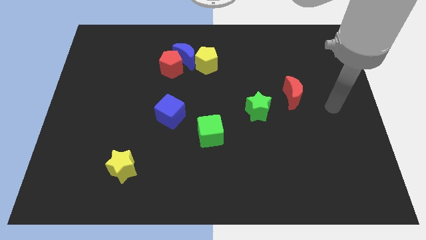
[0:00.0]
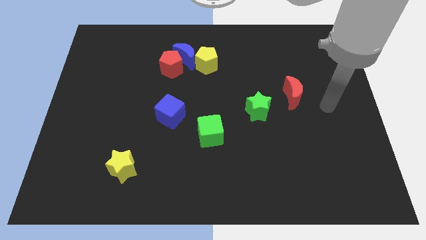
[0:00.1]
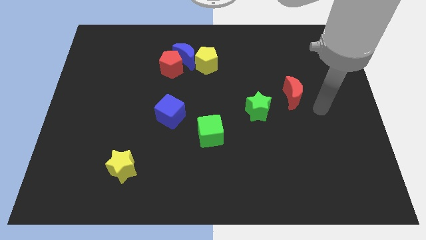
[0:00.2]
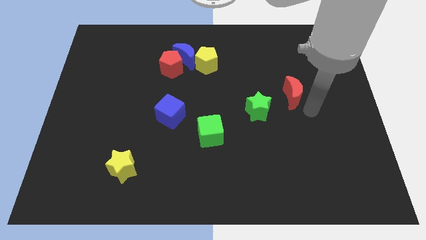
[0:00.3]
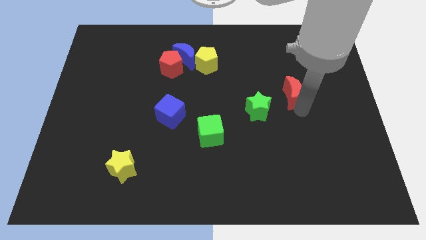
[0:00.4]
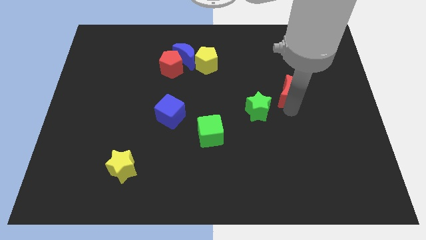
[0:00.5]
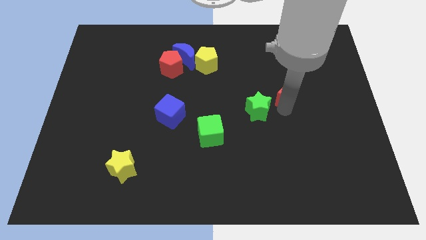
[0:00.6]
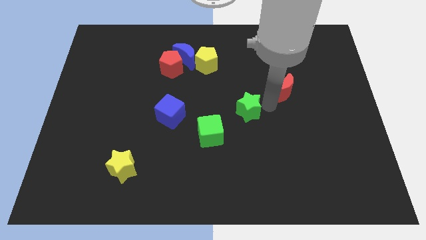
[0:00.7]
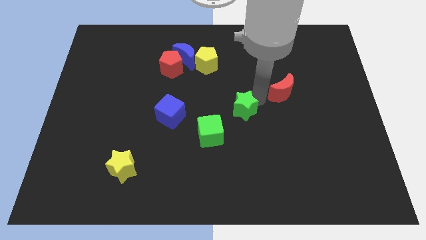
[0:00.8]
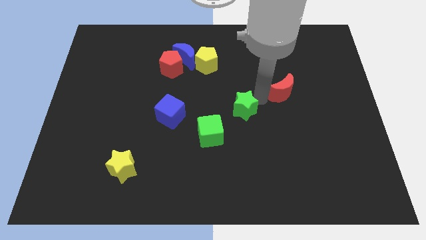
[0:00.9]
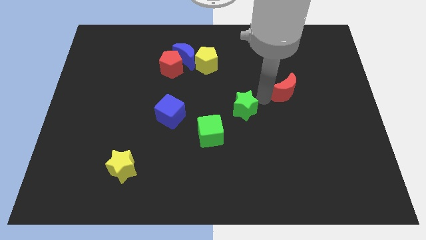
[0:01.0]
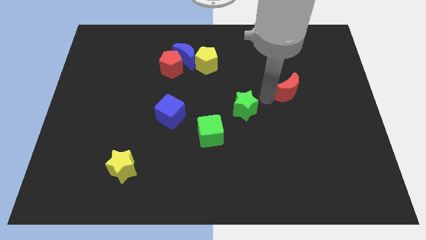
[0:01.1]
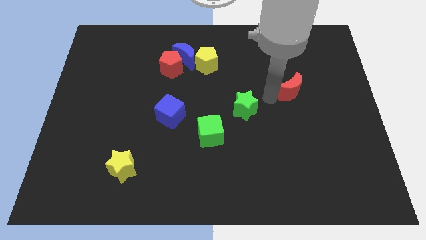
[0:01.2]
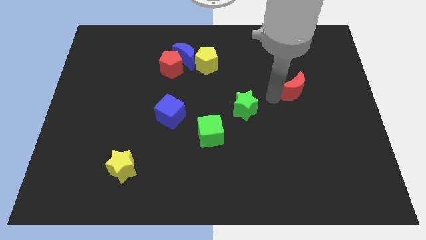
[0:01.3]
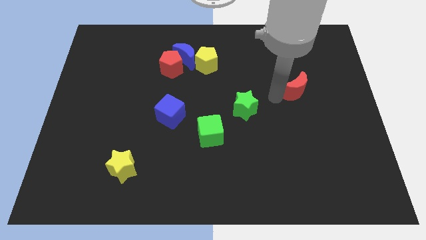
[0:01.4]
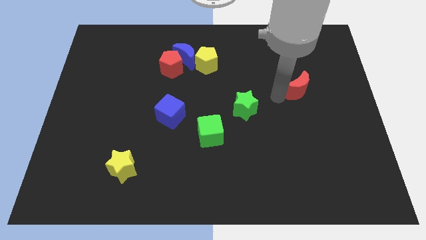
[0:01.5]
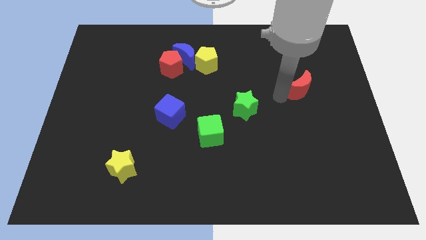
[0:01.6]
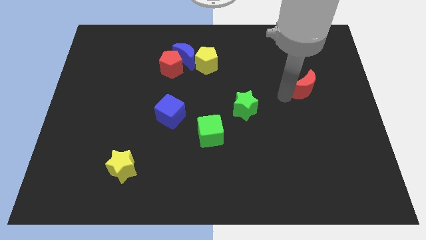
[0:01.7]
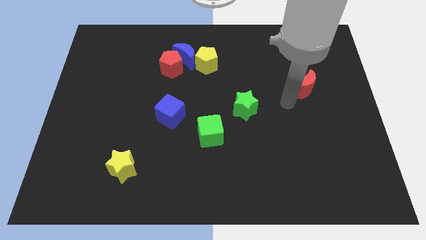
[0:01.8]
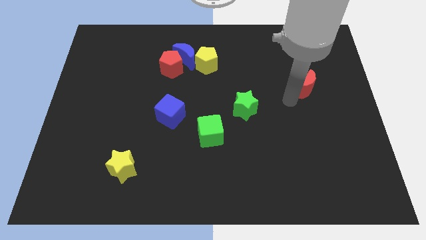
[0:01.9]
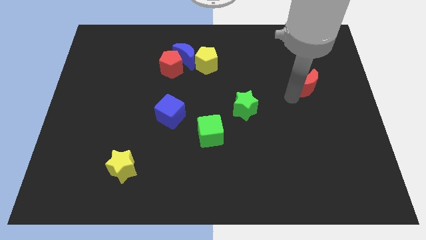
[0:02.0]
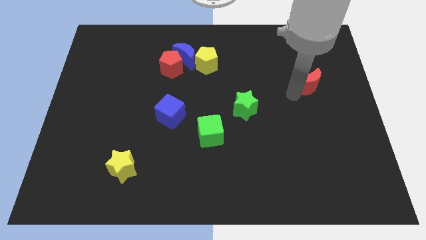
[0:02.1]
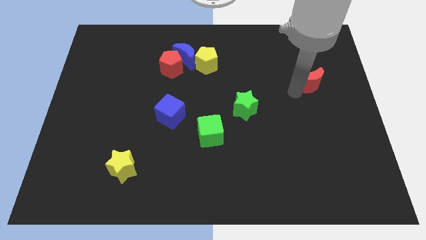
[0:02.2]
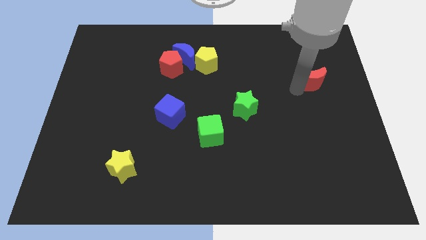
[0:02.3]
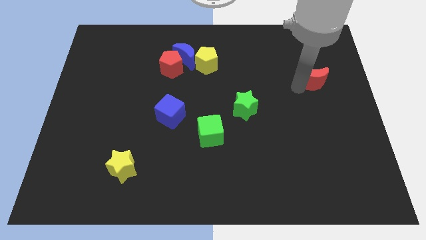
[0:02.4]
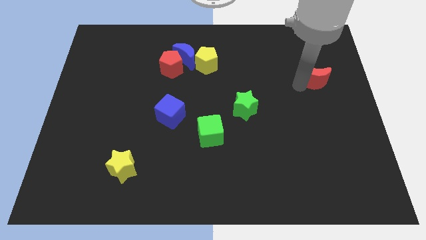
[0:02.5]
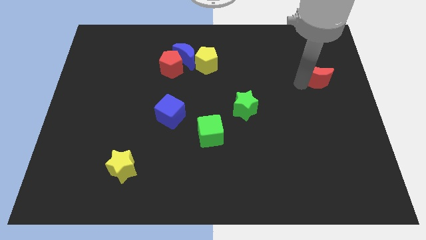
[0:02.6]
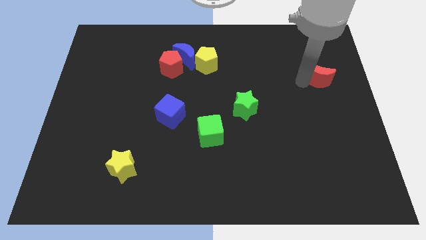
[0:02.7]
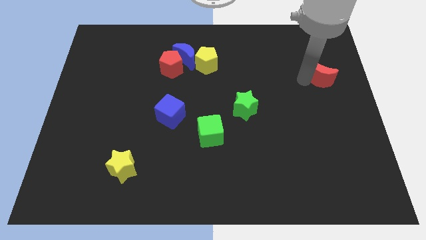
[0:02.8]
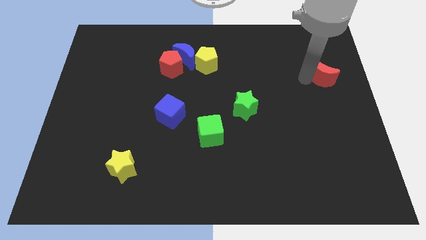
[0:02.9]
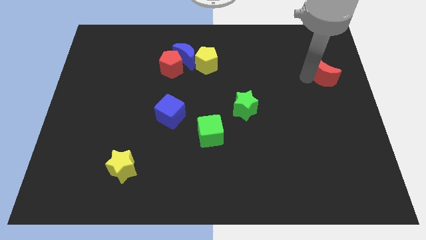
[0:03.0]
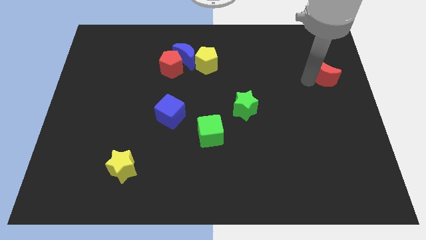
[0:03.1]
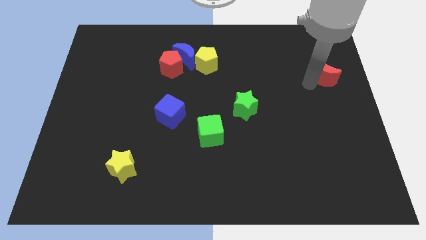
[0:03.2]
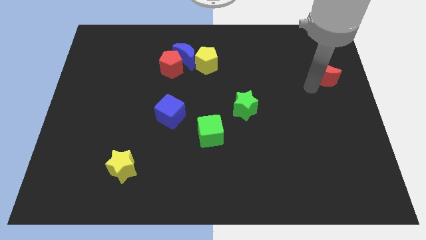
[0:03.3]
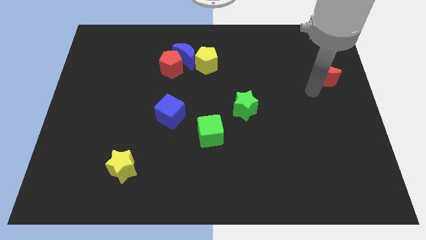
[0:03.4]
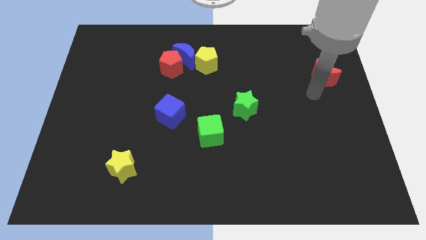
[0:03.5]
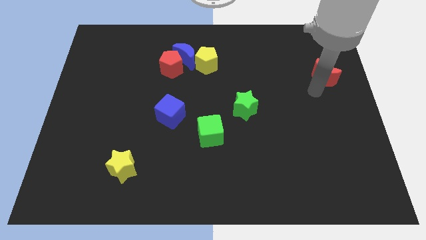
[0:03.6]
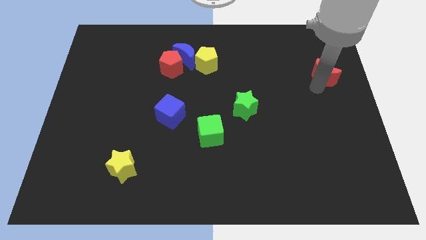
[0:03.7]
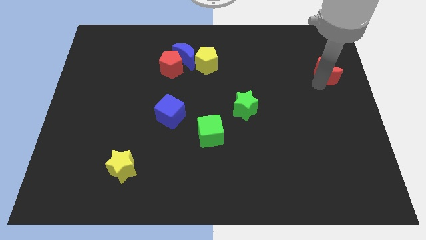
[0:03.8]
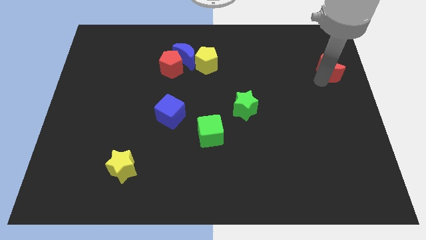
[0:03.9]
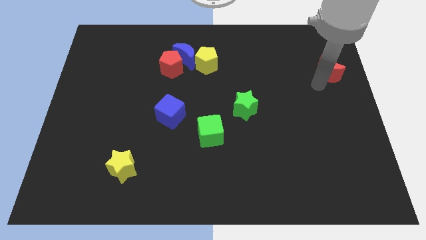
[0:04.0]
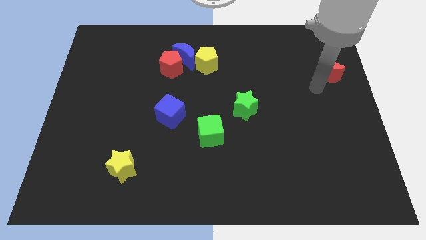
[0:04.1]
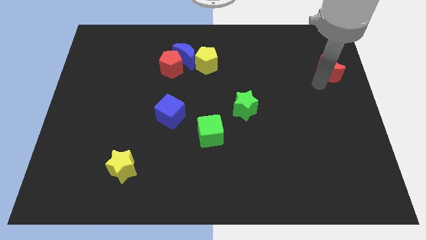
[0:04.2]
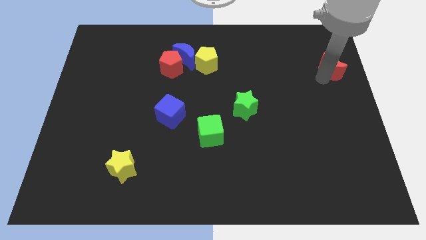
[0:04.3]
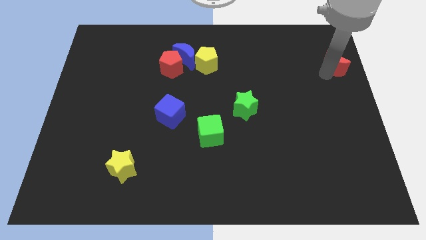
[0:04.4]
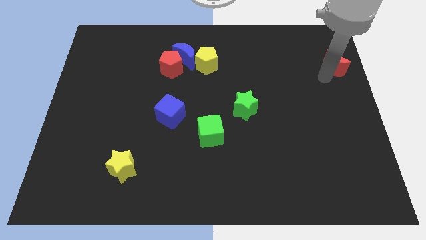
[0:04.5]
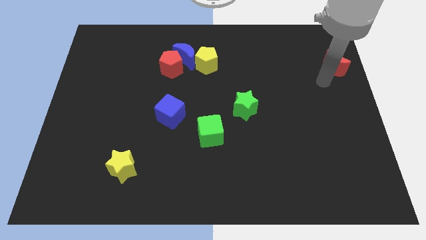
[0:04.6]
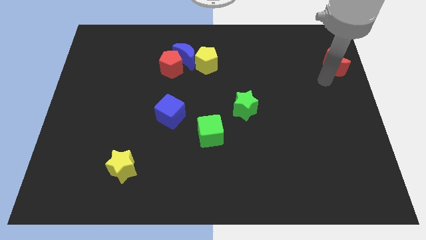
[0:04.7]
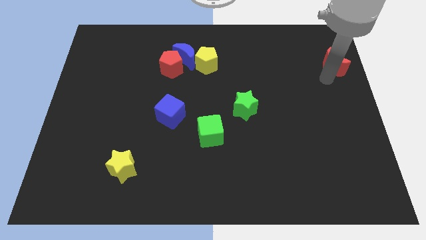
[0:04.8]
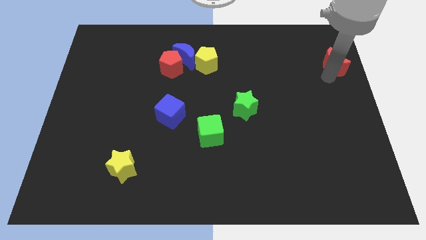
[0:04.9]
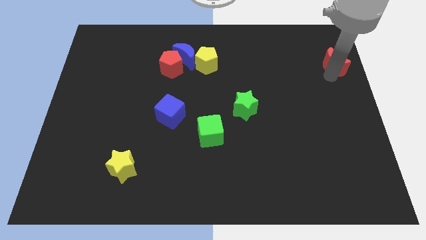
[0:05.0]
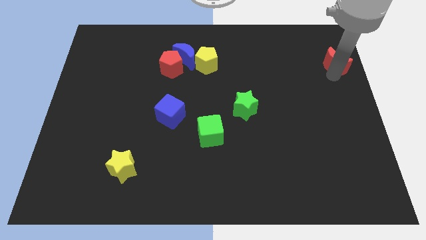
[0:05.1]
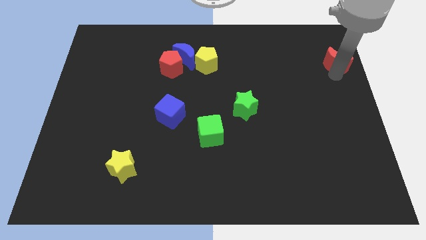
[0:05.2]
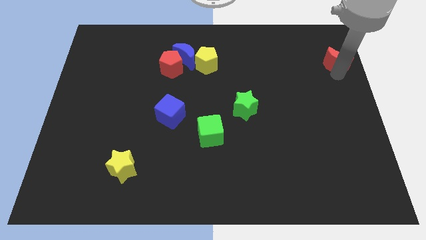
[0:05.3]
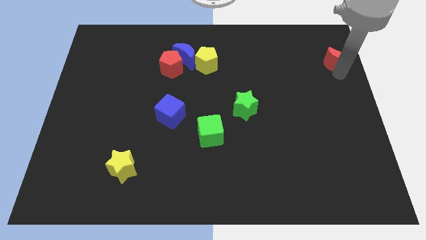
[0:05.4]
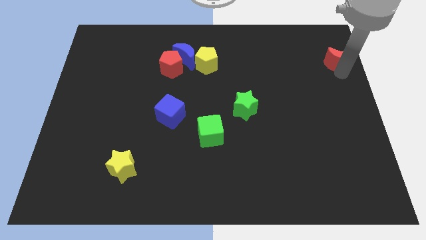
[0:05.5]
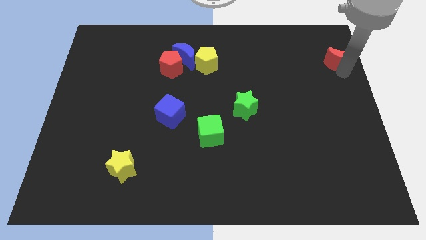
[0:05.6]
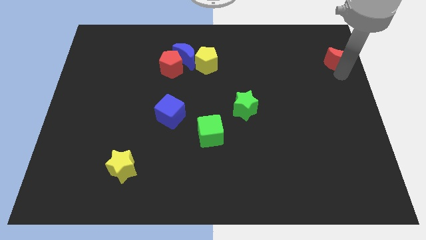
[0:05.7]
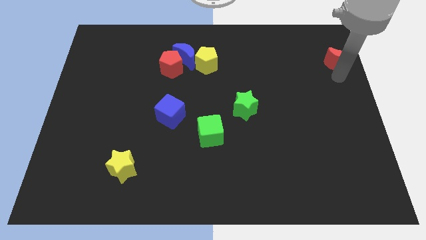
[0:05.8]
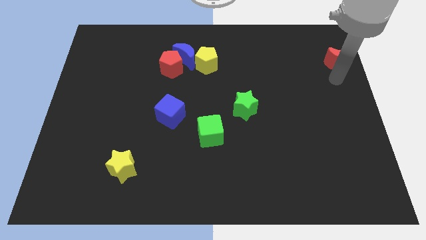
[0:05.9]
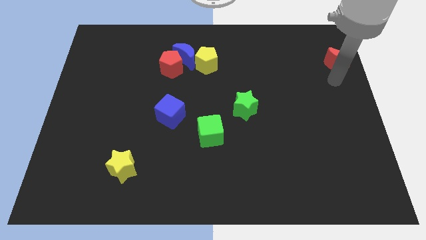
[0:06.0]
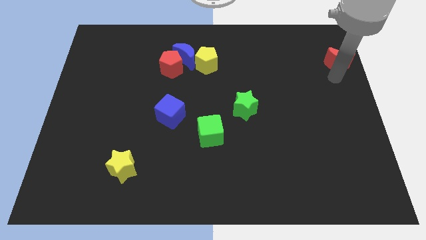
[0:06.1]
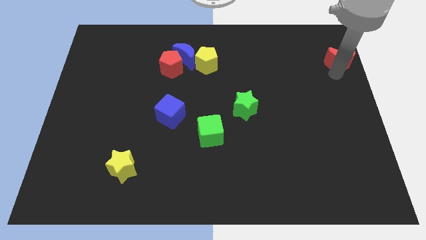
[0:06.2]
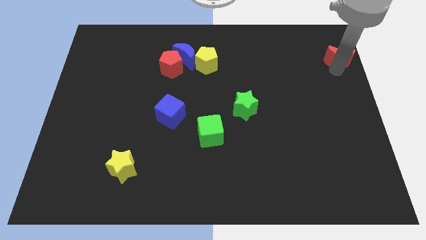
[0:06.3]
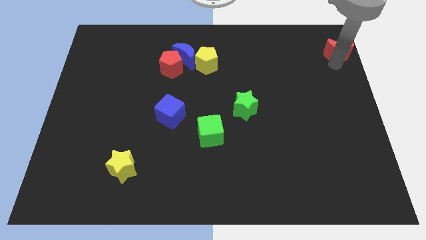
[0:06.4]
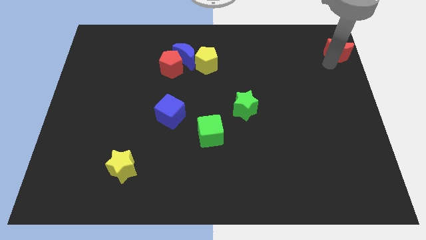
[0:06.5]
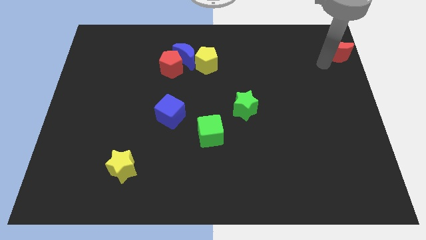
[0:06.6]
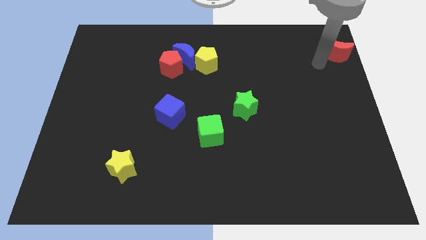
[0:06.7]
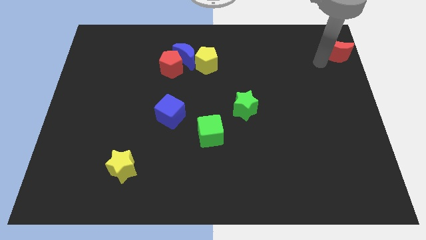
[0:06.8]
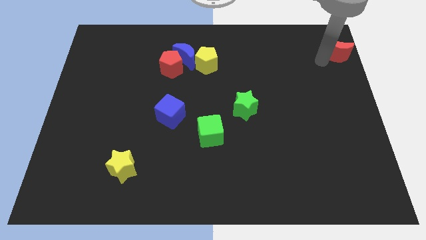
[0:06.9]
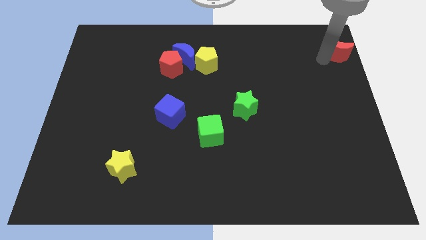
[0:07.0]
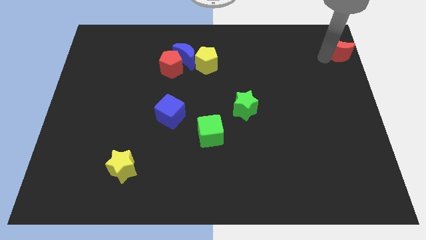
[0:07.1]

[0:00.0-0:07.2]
push the red moon to the top right of the board
